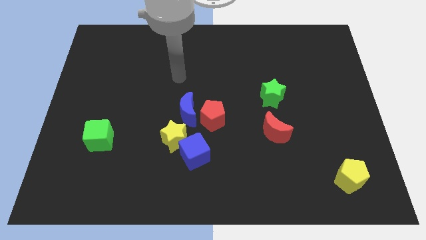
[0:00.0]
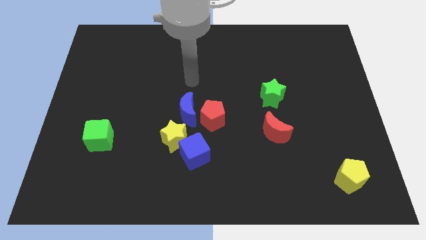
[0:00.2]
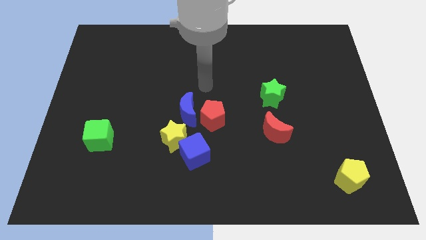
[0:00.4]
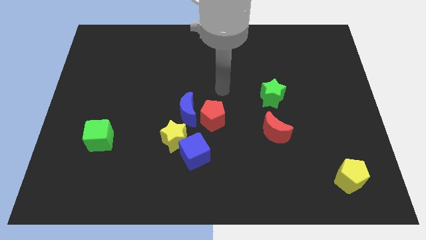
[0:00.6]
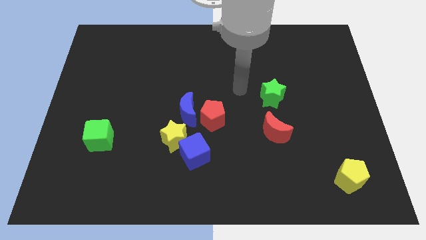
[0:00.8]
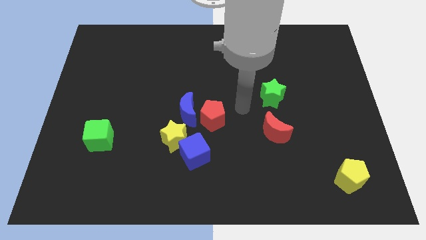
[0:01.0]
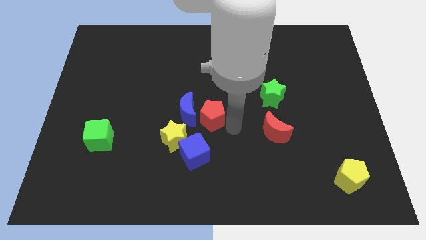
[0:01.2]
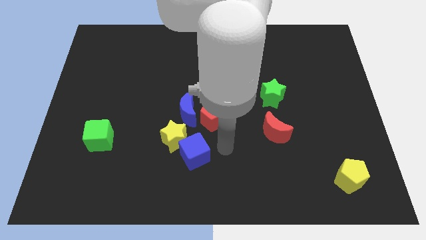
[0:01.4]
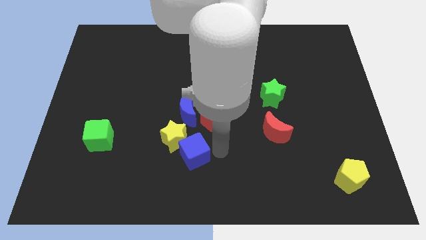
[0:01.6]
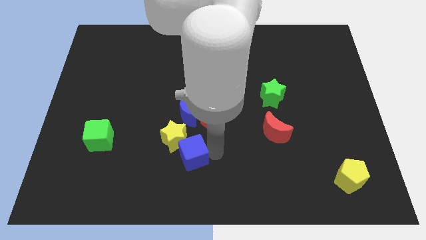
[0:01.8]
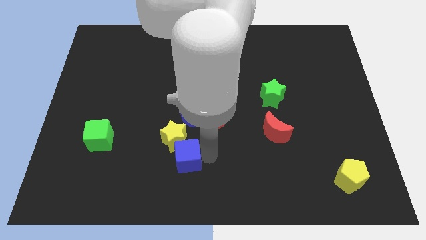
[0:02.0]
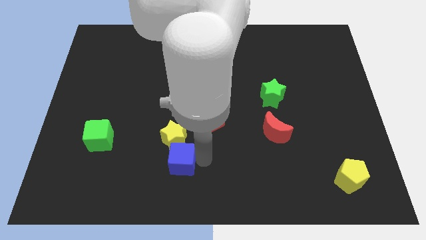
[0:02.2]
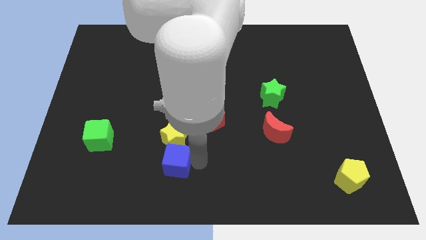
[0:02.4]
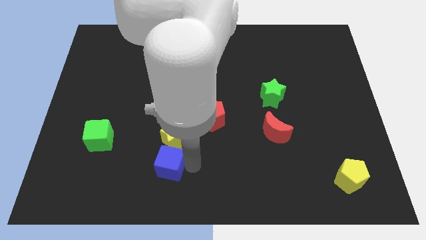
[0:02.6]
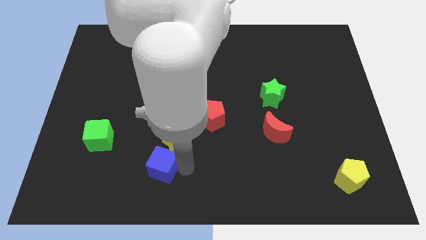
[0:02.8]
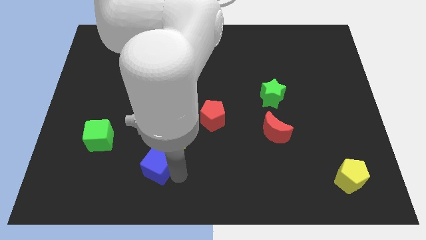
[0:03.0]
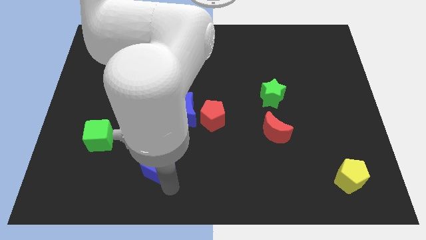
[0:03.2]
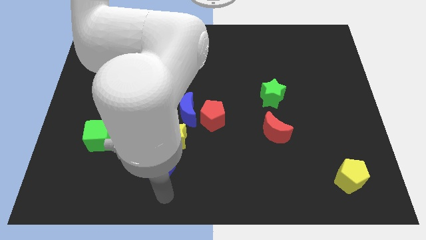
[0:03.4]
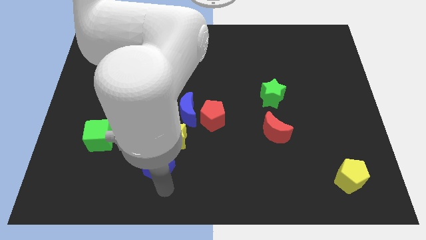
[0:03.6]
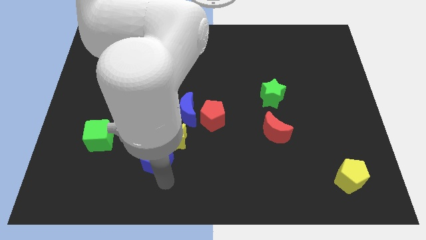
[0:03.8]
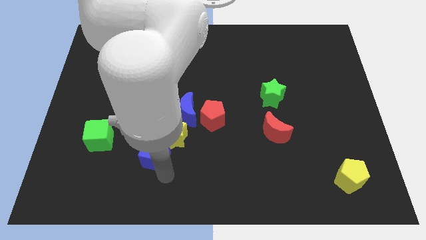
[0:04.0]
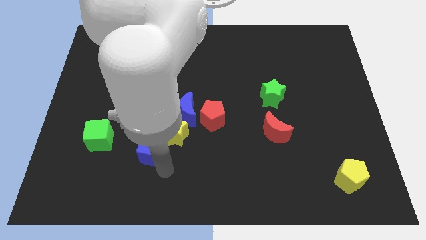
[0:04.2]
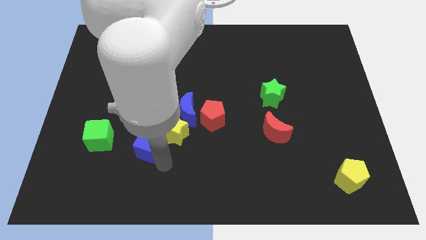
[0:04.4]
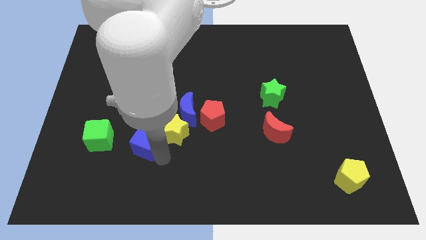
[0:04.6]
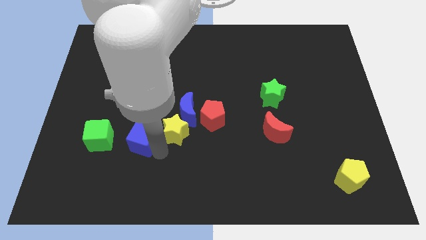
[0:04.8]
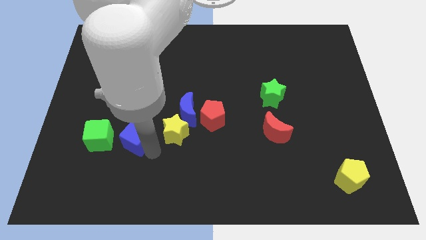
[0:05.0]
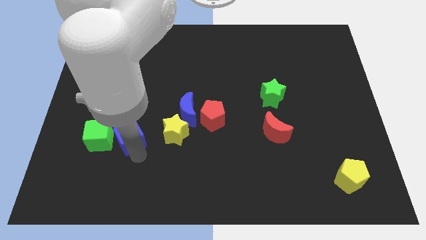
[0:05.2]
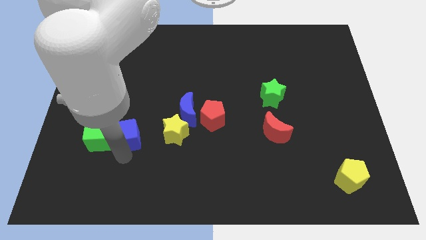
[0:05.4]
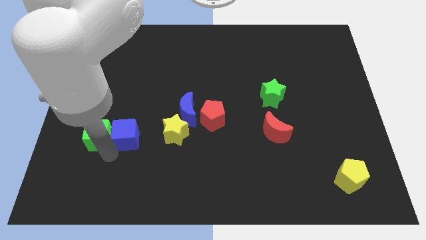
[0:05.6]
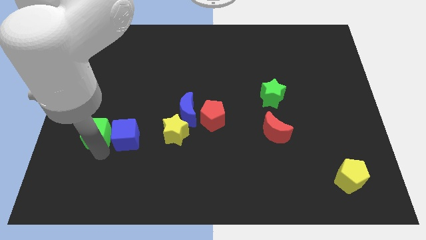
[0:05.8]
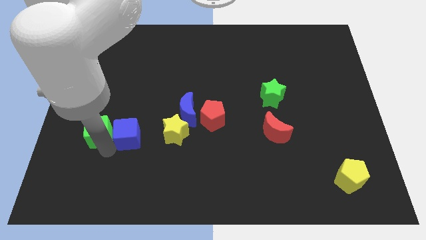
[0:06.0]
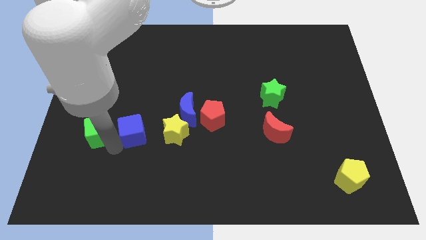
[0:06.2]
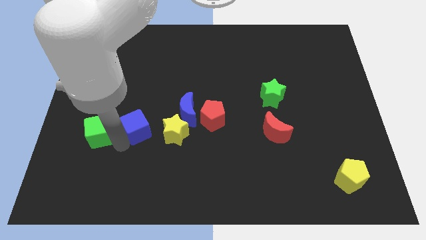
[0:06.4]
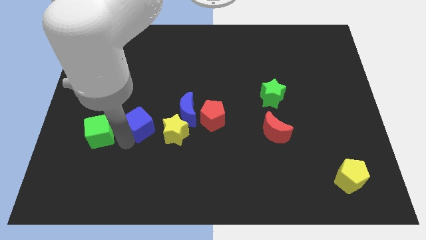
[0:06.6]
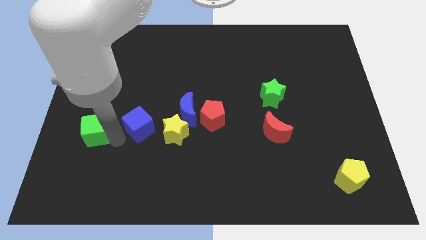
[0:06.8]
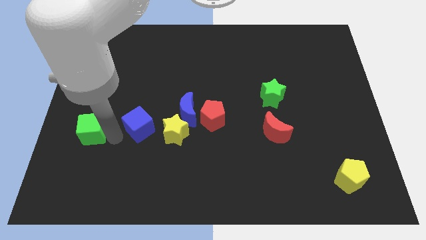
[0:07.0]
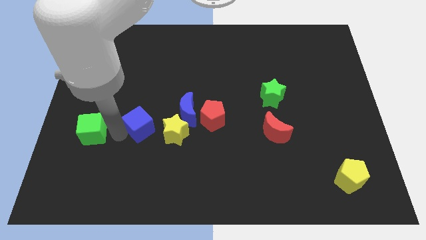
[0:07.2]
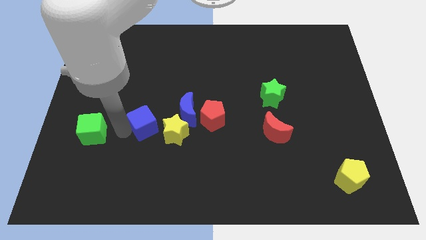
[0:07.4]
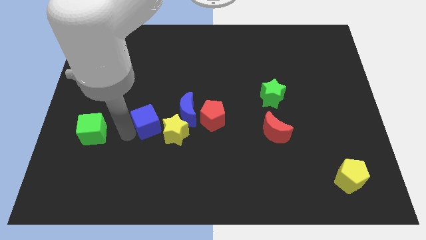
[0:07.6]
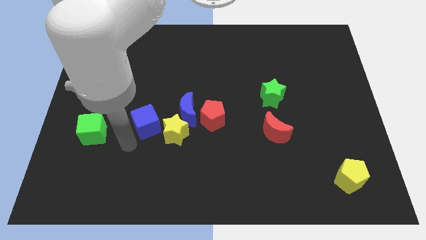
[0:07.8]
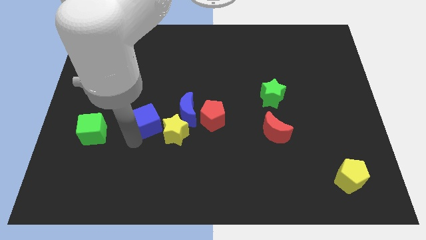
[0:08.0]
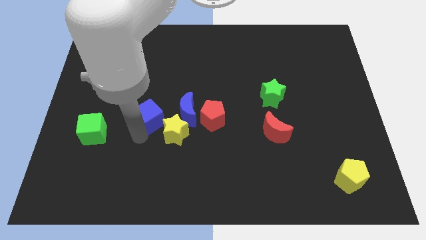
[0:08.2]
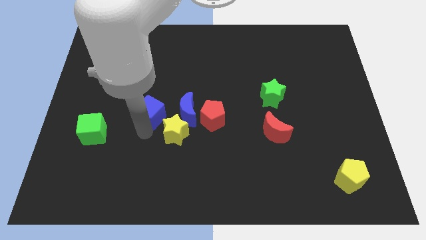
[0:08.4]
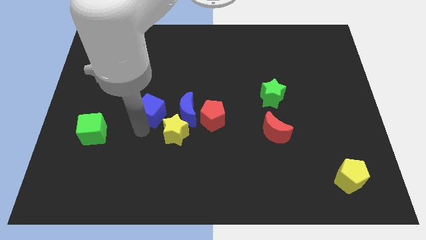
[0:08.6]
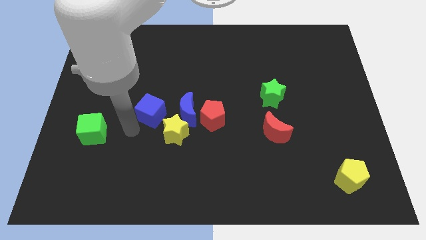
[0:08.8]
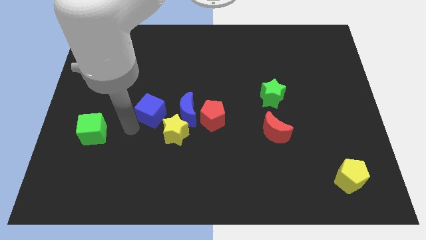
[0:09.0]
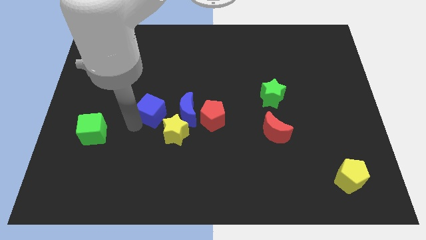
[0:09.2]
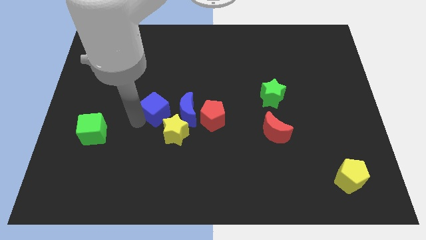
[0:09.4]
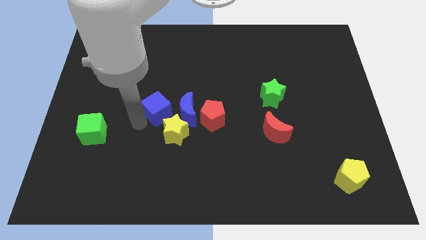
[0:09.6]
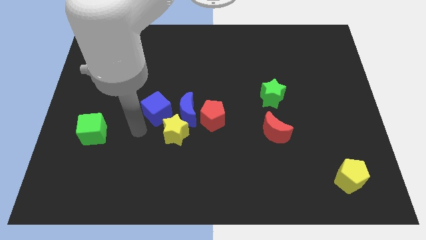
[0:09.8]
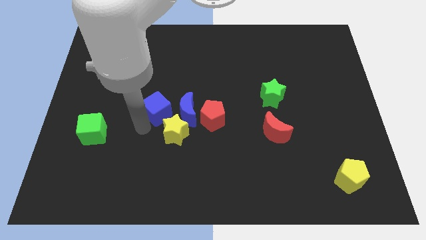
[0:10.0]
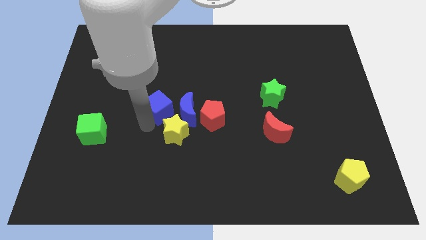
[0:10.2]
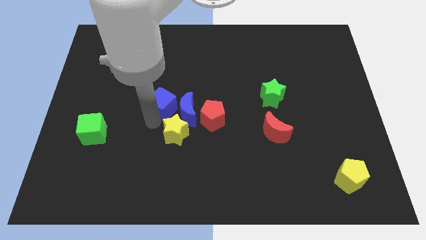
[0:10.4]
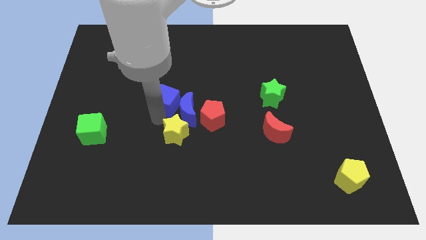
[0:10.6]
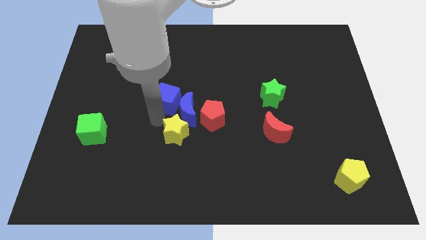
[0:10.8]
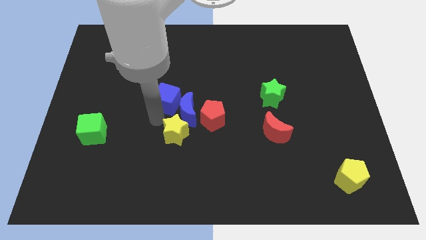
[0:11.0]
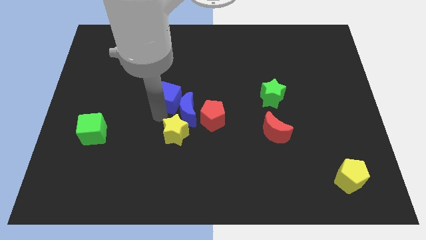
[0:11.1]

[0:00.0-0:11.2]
put the blue cube to the top of the blue moon

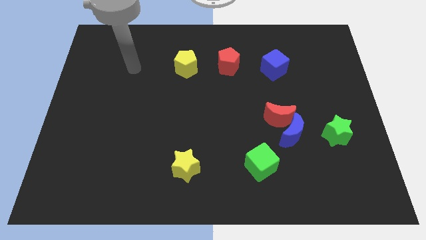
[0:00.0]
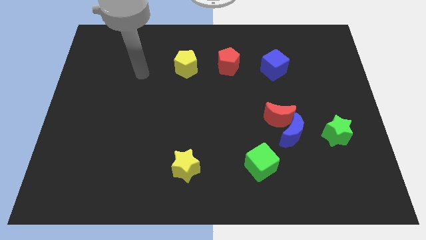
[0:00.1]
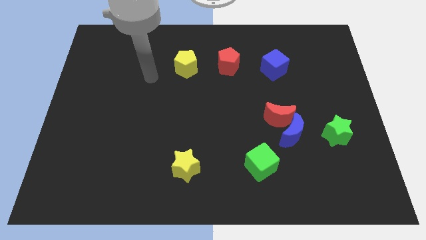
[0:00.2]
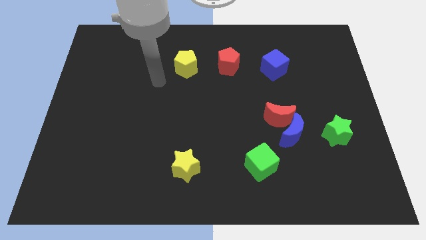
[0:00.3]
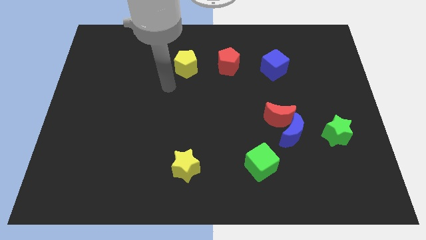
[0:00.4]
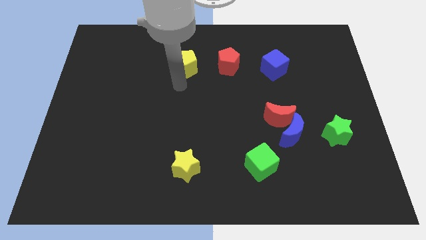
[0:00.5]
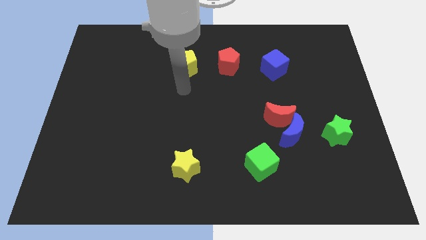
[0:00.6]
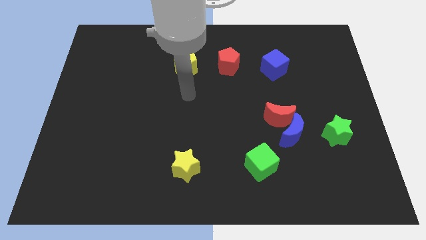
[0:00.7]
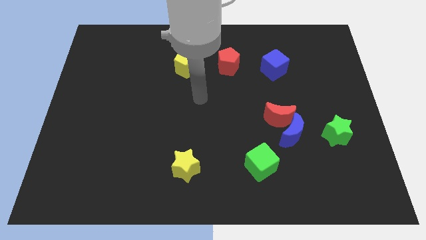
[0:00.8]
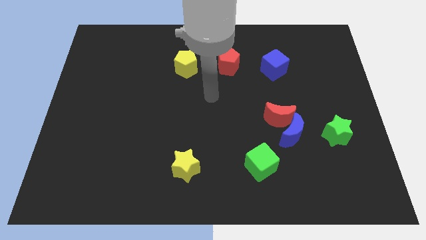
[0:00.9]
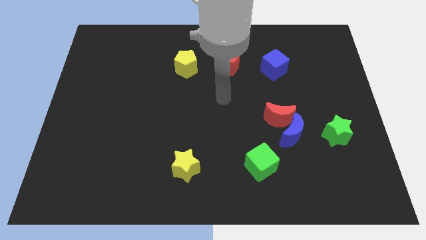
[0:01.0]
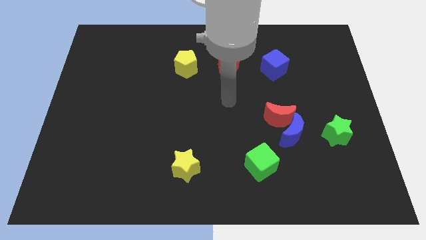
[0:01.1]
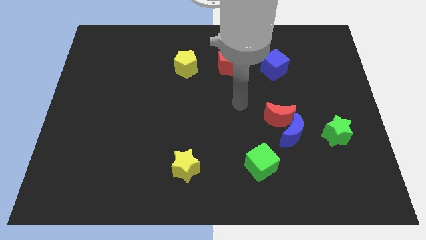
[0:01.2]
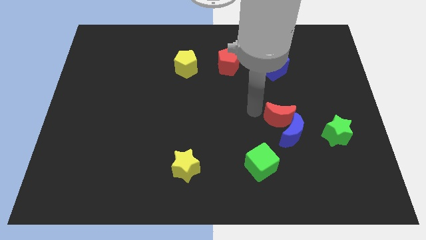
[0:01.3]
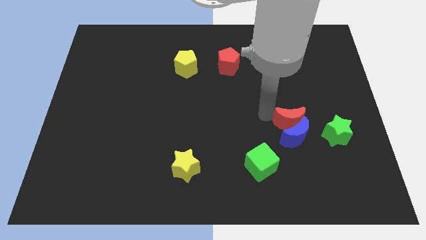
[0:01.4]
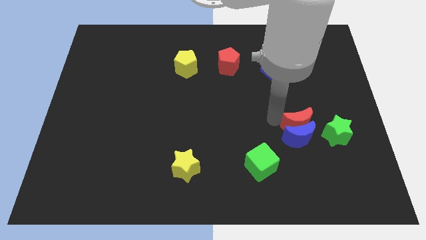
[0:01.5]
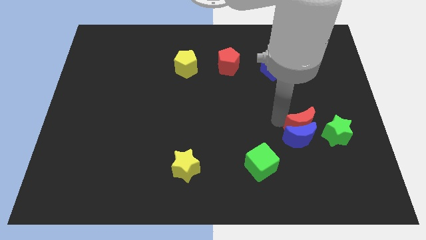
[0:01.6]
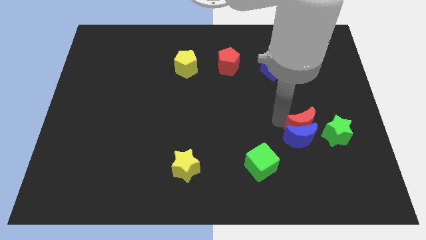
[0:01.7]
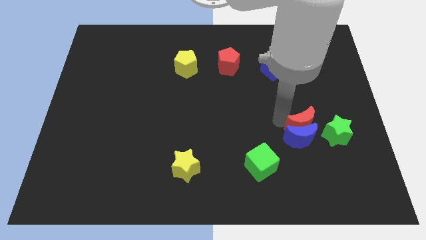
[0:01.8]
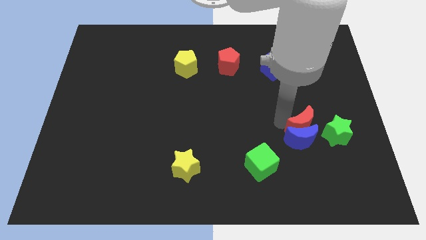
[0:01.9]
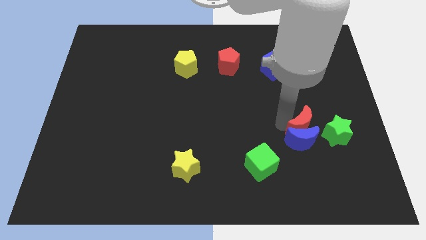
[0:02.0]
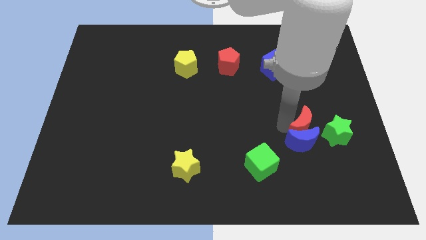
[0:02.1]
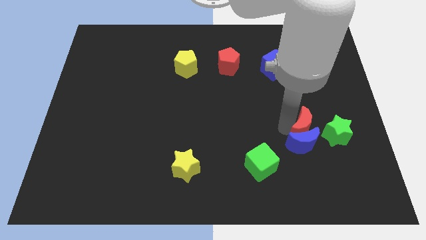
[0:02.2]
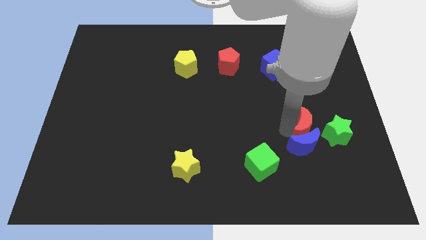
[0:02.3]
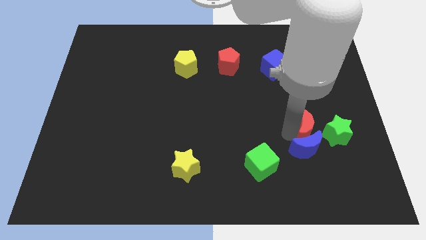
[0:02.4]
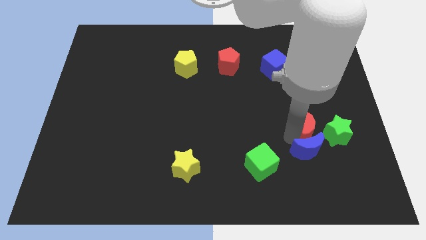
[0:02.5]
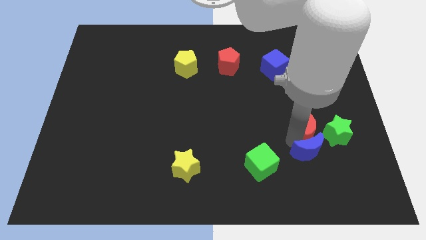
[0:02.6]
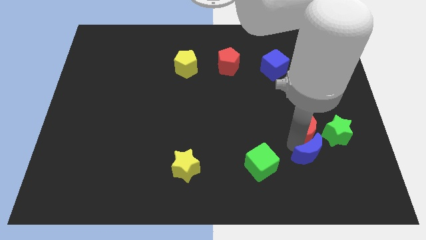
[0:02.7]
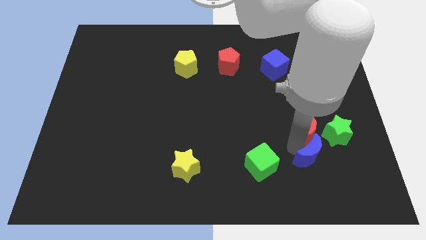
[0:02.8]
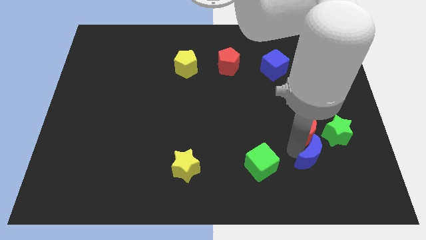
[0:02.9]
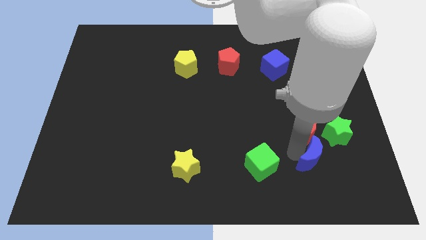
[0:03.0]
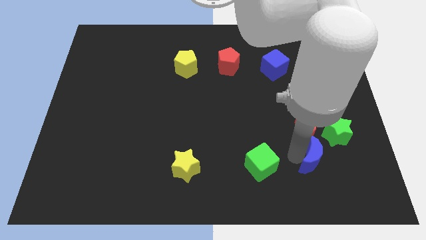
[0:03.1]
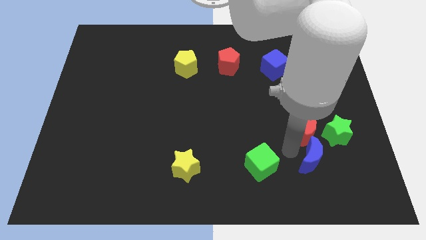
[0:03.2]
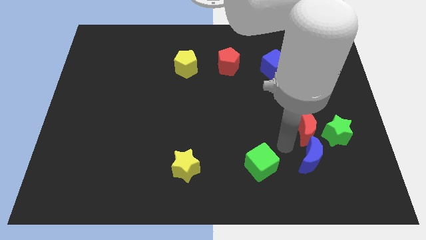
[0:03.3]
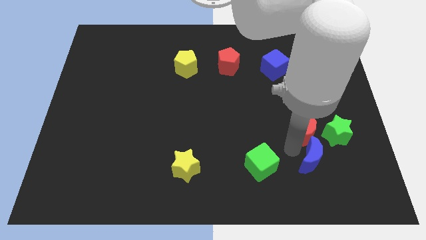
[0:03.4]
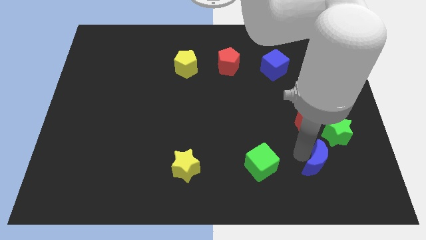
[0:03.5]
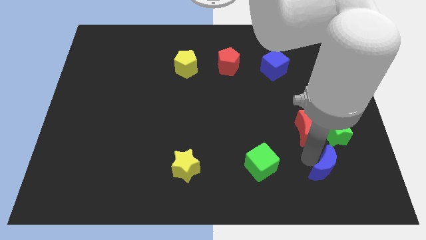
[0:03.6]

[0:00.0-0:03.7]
put the blue moon below the green star
